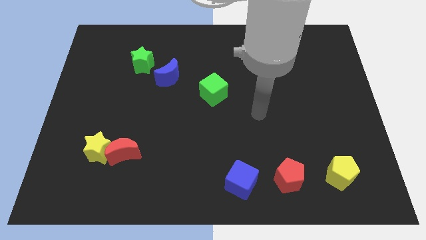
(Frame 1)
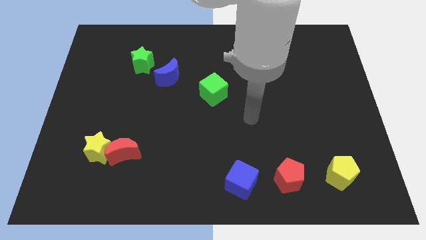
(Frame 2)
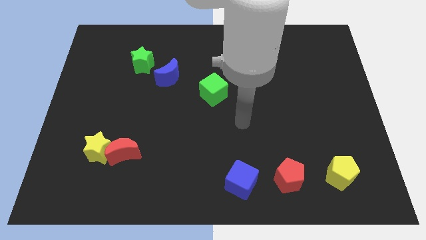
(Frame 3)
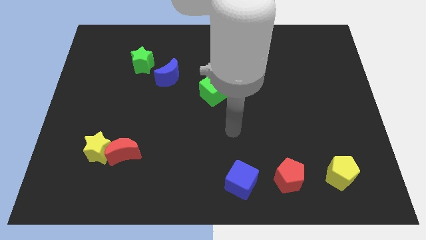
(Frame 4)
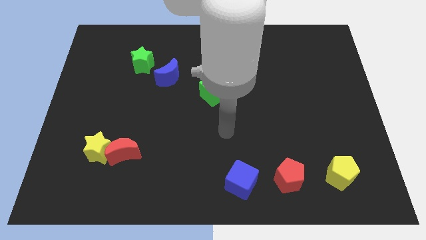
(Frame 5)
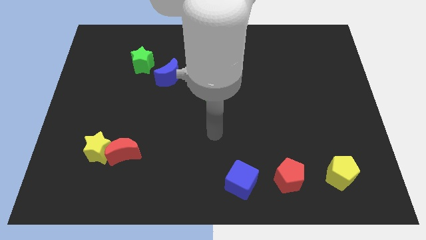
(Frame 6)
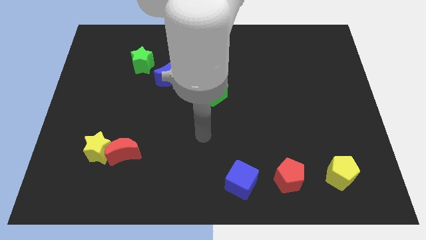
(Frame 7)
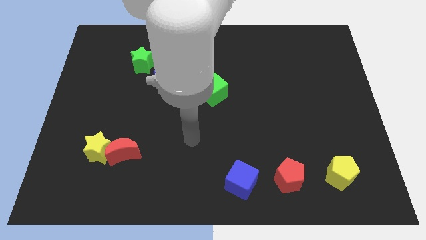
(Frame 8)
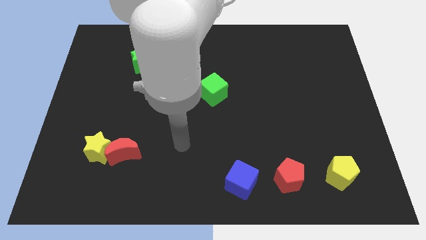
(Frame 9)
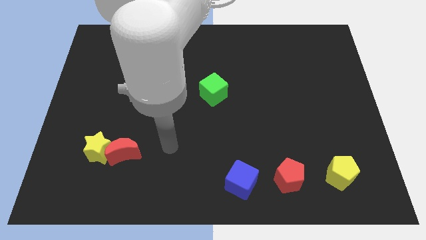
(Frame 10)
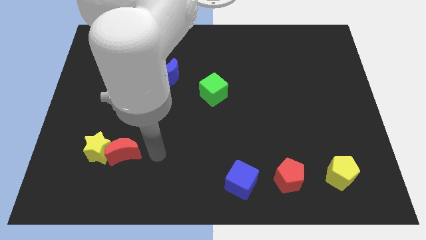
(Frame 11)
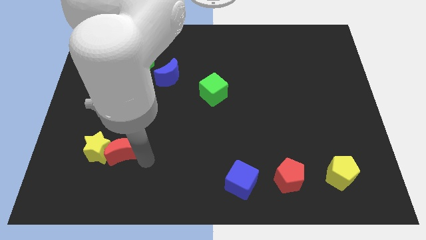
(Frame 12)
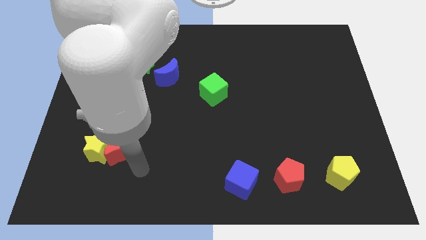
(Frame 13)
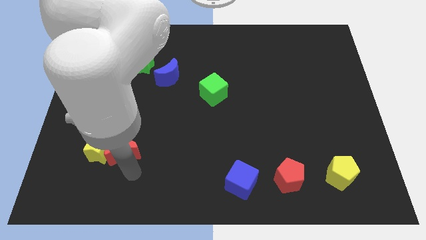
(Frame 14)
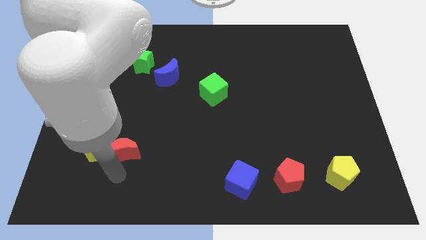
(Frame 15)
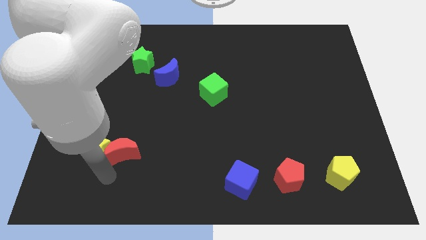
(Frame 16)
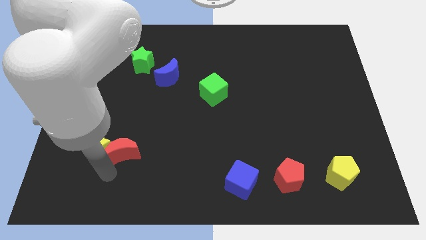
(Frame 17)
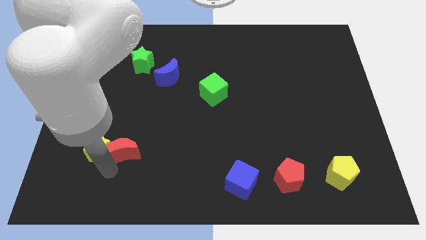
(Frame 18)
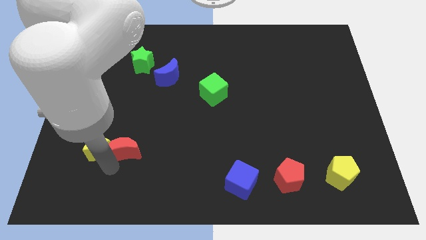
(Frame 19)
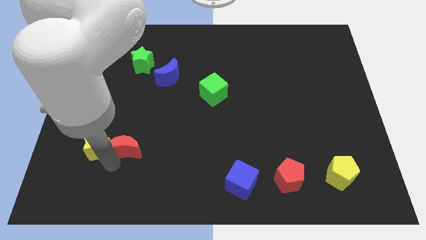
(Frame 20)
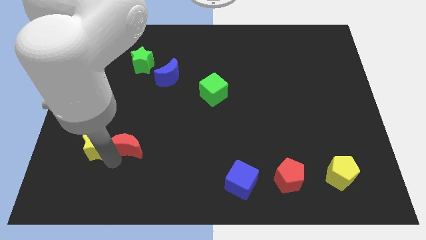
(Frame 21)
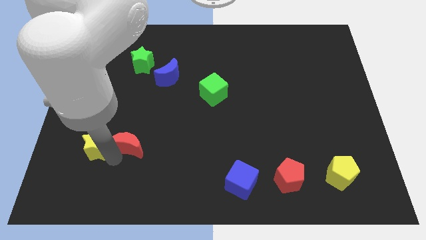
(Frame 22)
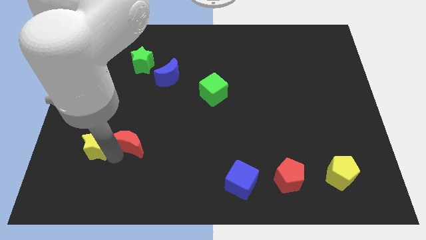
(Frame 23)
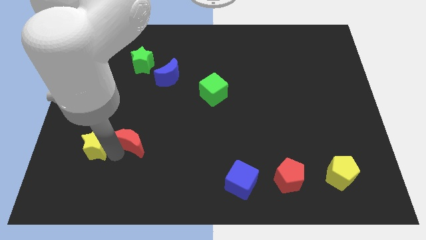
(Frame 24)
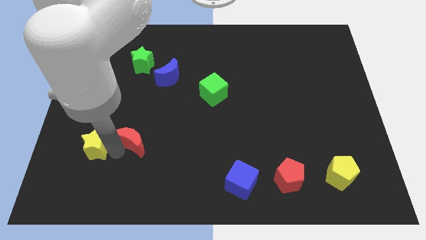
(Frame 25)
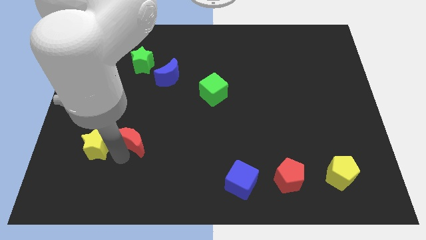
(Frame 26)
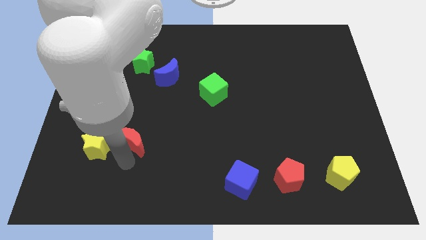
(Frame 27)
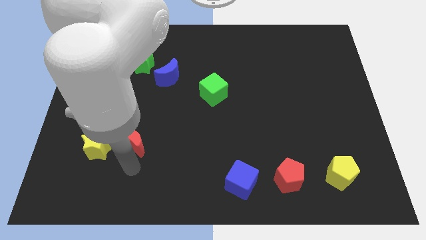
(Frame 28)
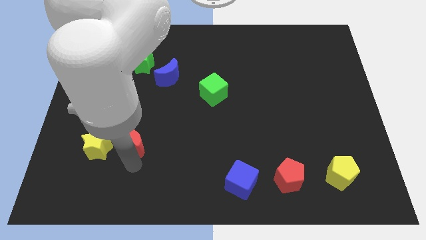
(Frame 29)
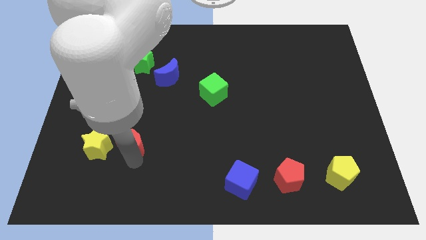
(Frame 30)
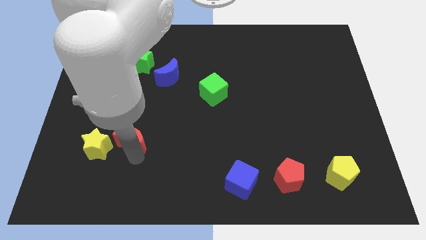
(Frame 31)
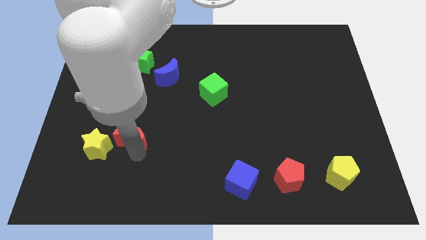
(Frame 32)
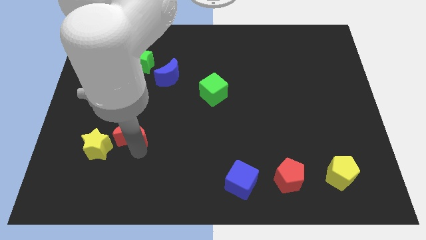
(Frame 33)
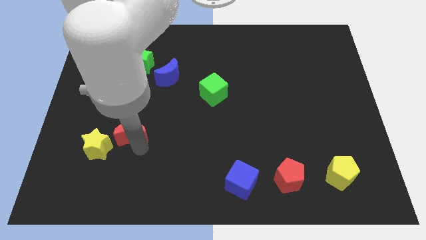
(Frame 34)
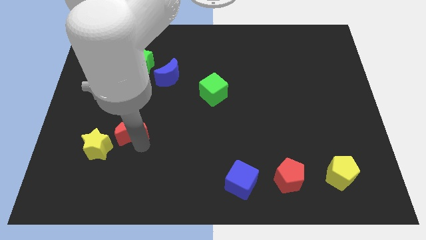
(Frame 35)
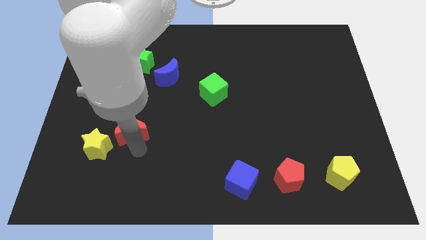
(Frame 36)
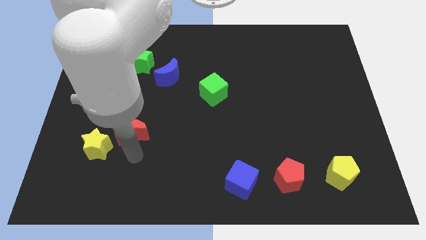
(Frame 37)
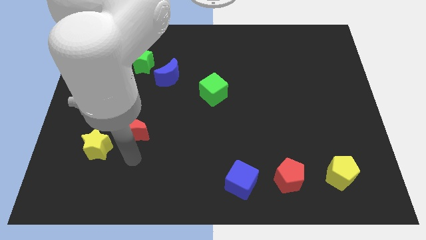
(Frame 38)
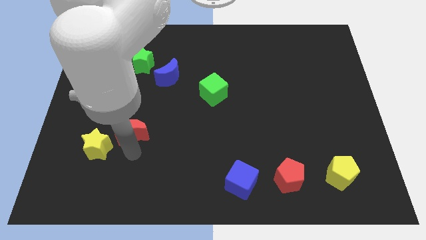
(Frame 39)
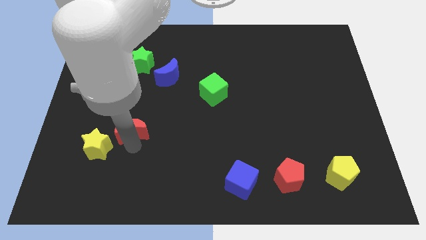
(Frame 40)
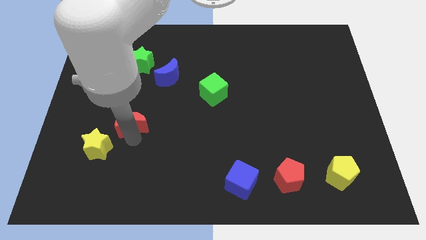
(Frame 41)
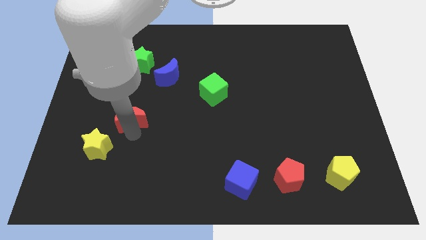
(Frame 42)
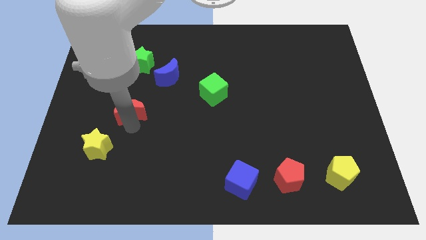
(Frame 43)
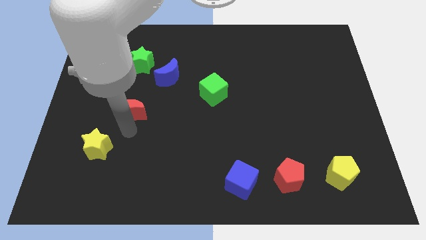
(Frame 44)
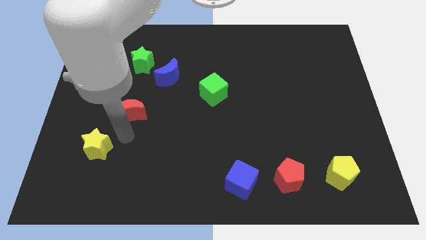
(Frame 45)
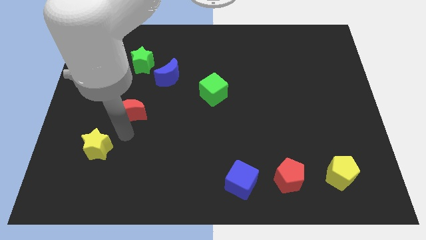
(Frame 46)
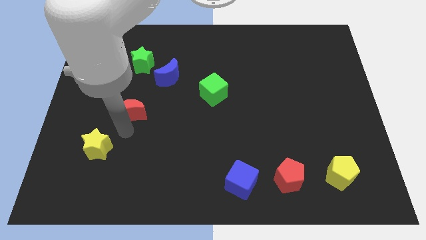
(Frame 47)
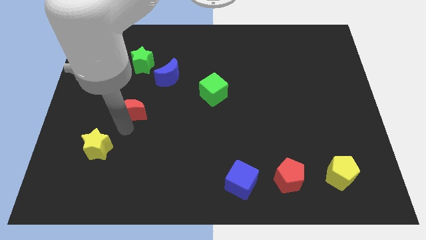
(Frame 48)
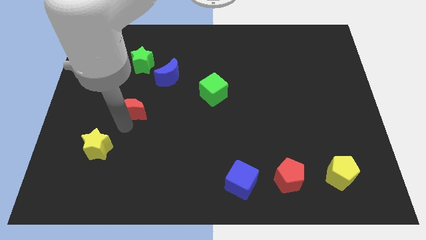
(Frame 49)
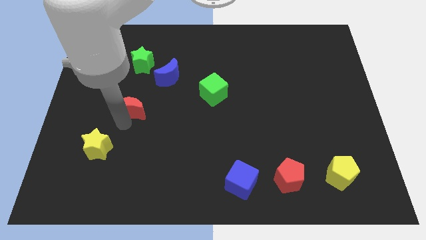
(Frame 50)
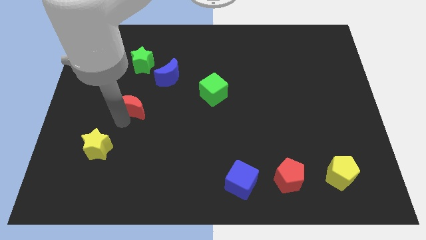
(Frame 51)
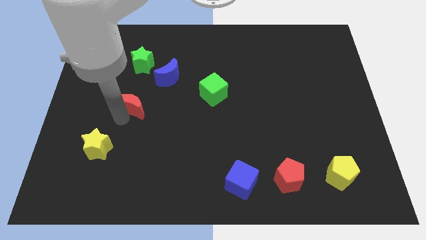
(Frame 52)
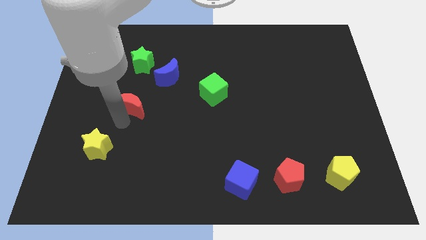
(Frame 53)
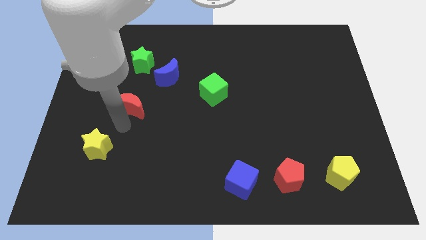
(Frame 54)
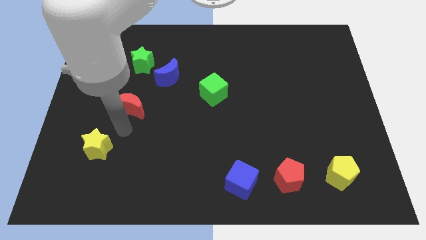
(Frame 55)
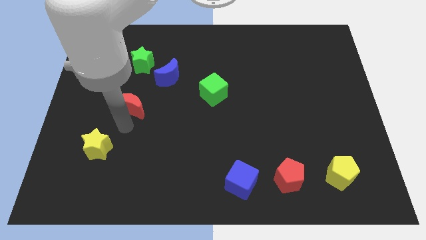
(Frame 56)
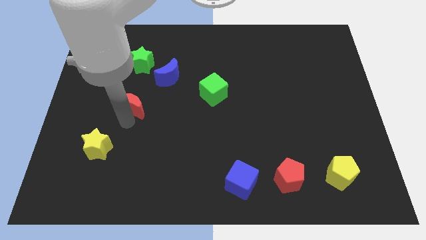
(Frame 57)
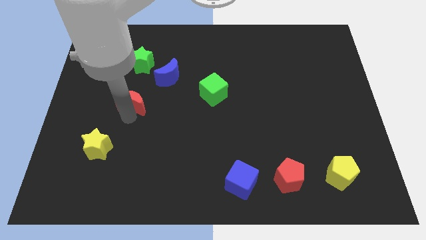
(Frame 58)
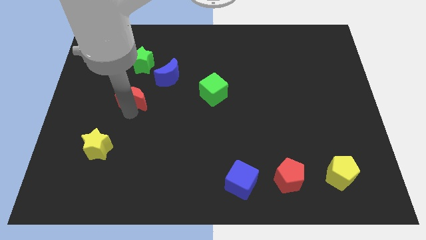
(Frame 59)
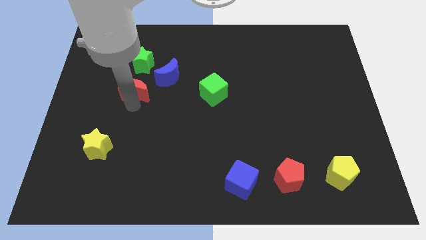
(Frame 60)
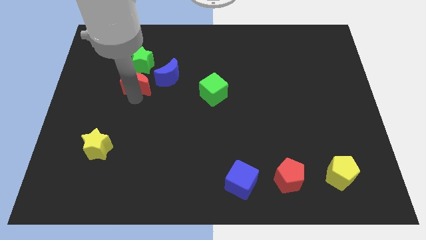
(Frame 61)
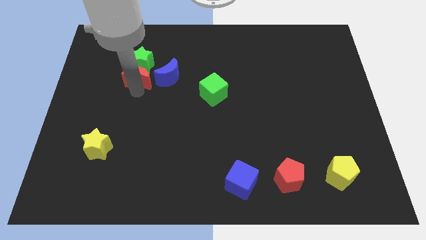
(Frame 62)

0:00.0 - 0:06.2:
slide the red moon close to the green star
